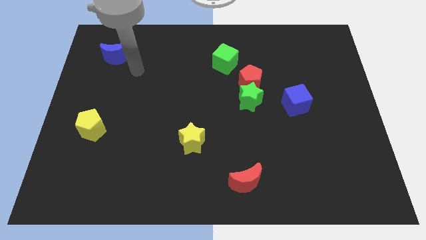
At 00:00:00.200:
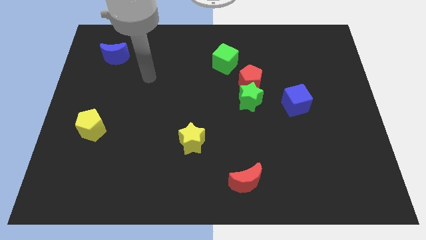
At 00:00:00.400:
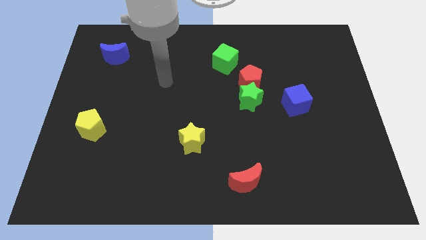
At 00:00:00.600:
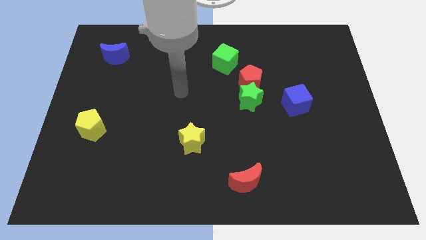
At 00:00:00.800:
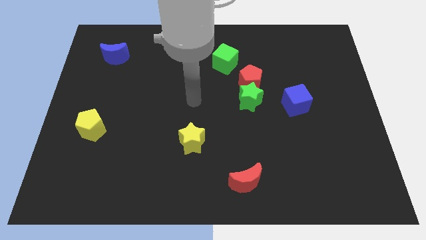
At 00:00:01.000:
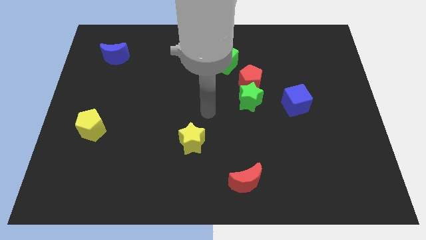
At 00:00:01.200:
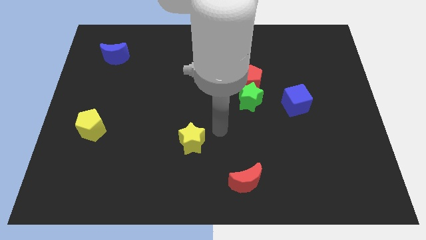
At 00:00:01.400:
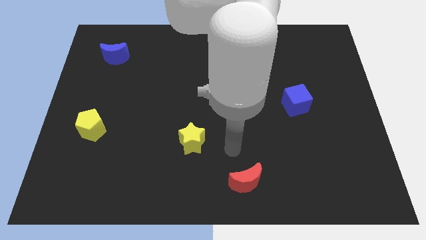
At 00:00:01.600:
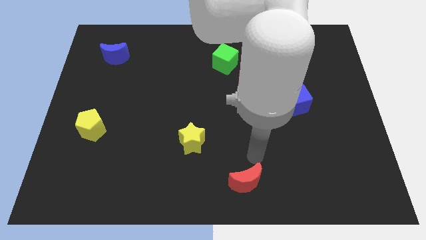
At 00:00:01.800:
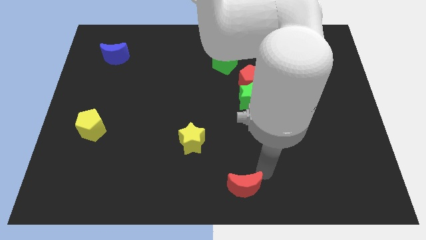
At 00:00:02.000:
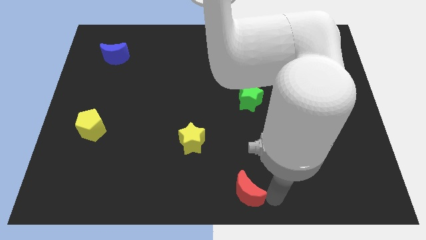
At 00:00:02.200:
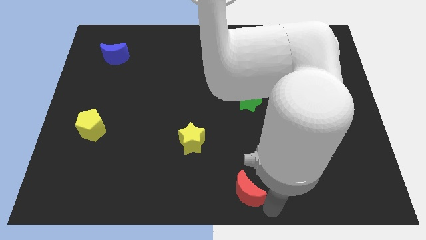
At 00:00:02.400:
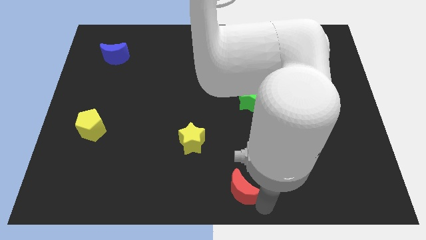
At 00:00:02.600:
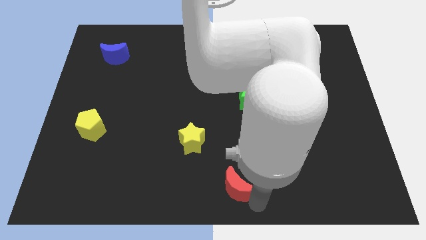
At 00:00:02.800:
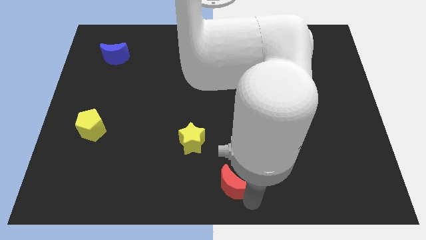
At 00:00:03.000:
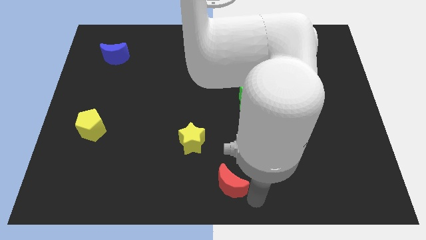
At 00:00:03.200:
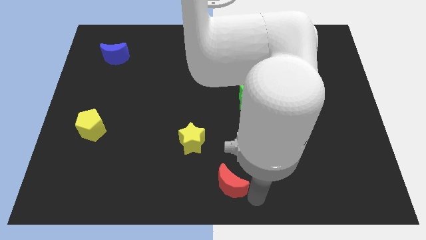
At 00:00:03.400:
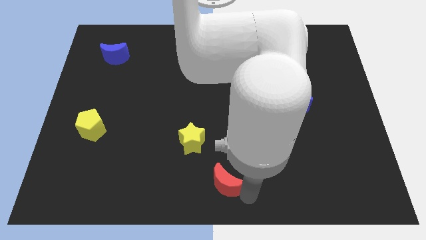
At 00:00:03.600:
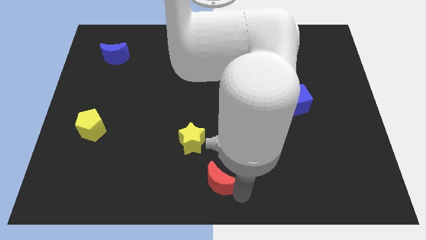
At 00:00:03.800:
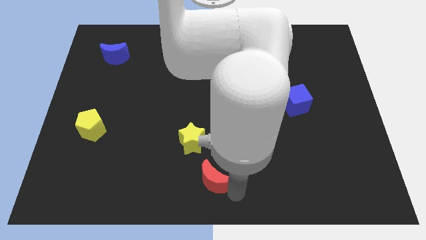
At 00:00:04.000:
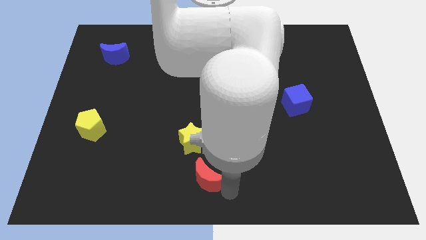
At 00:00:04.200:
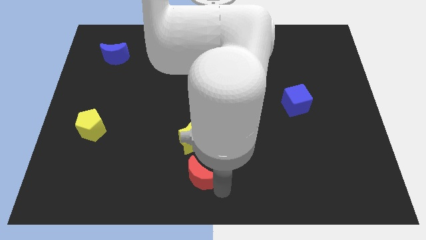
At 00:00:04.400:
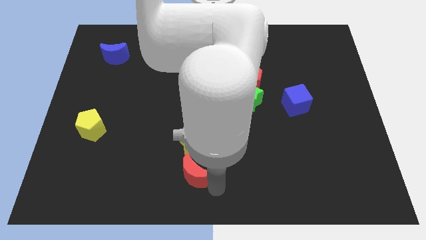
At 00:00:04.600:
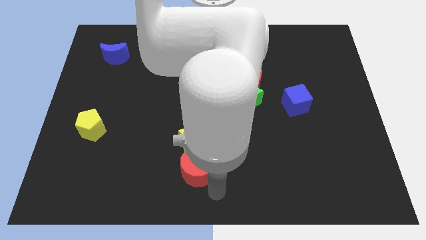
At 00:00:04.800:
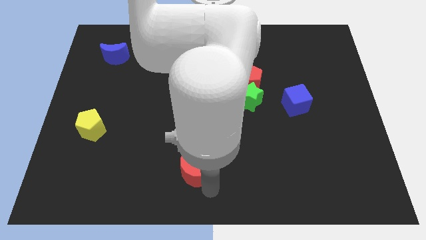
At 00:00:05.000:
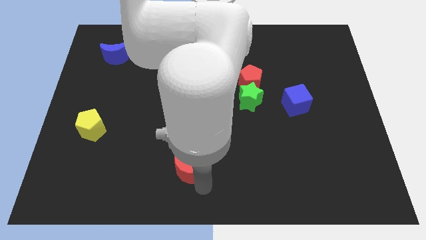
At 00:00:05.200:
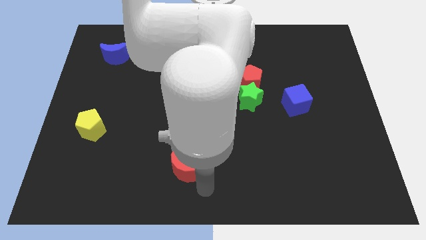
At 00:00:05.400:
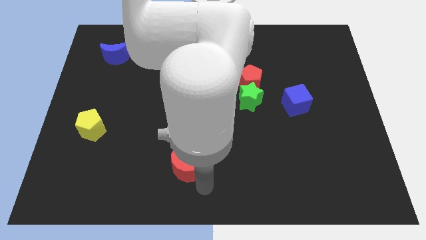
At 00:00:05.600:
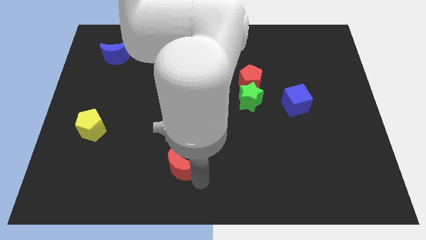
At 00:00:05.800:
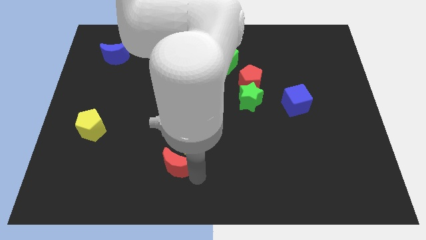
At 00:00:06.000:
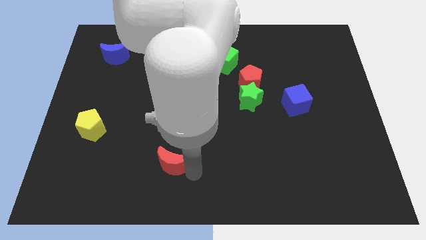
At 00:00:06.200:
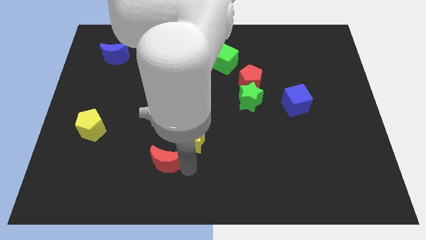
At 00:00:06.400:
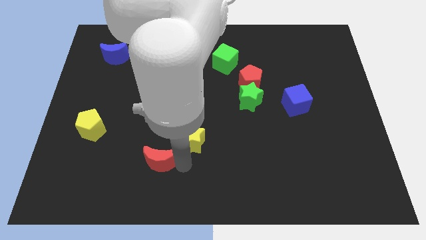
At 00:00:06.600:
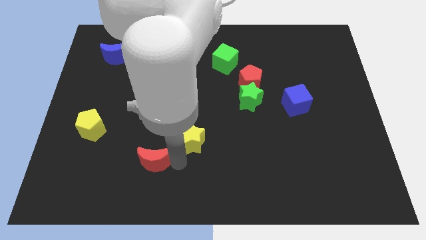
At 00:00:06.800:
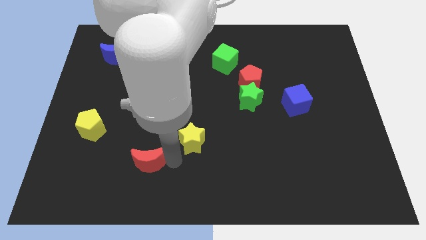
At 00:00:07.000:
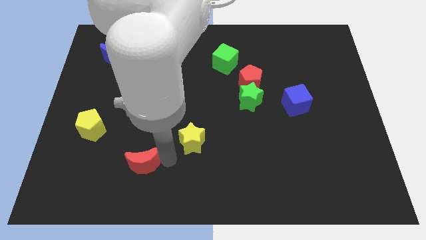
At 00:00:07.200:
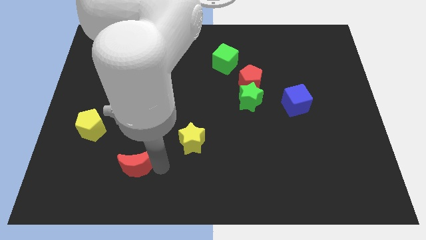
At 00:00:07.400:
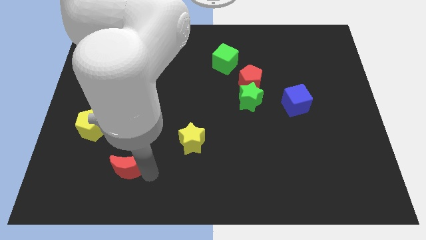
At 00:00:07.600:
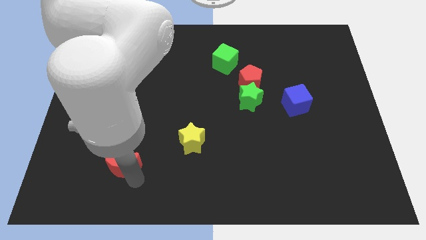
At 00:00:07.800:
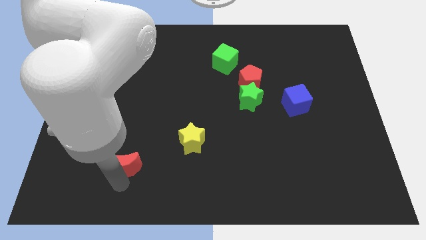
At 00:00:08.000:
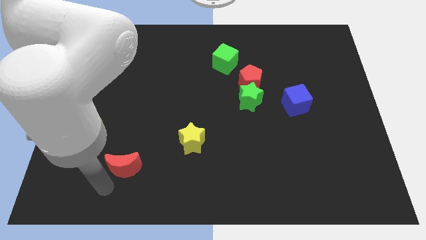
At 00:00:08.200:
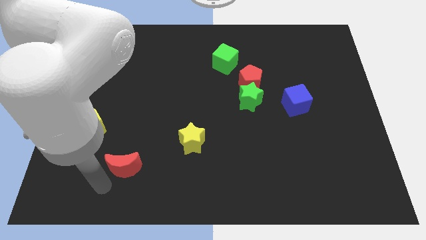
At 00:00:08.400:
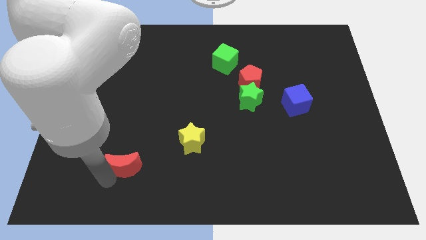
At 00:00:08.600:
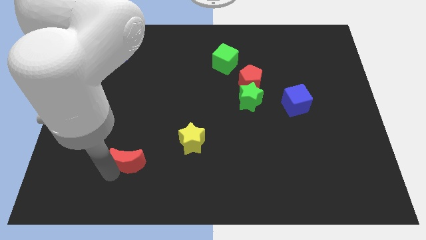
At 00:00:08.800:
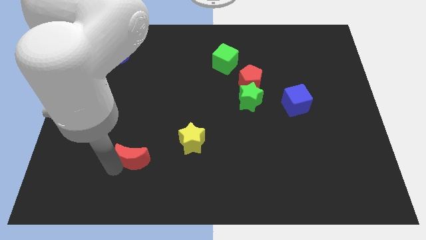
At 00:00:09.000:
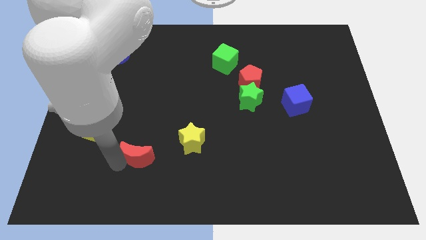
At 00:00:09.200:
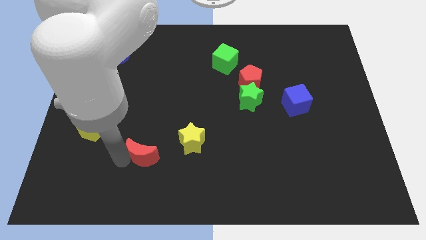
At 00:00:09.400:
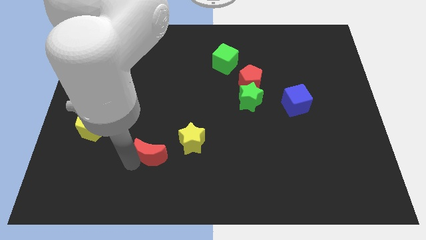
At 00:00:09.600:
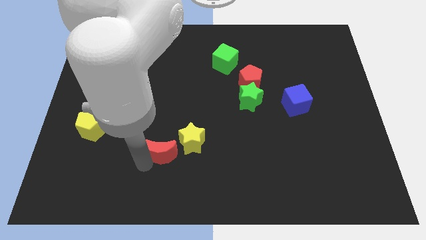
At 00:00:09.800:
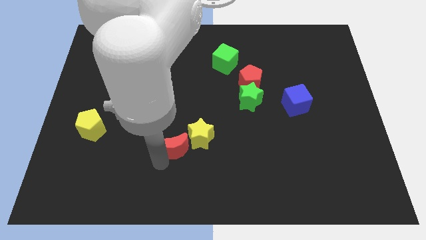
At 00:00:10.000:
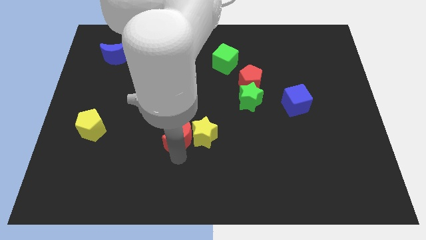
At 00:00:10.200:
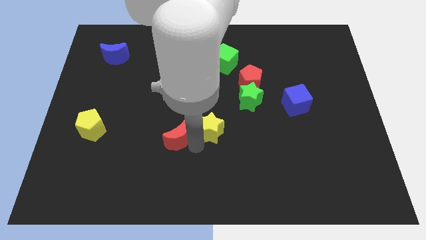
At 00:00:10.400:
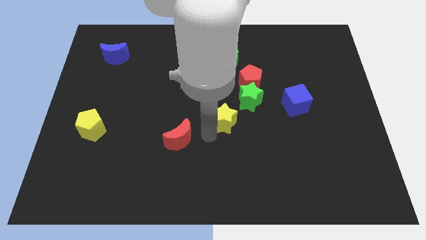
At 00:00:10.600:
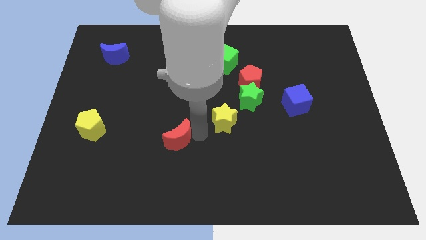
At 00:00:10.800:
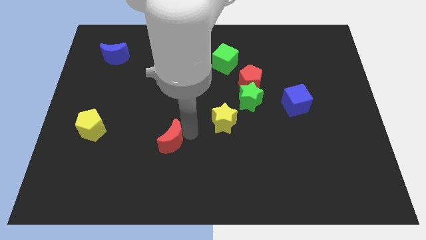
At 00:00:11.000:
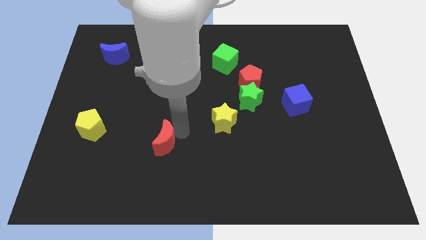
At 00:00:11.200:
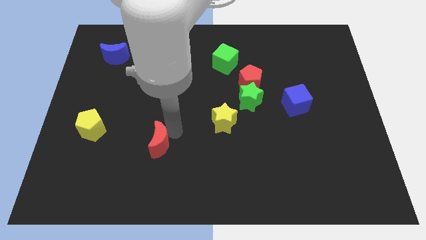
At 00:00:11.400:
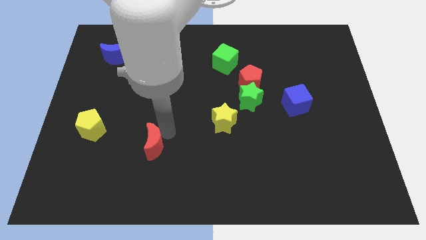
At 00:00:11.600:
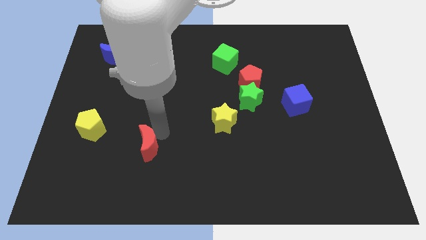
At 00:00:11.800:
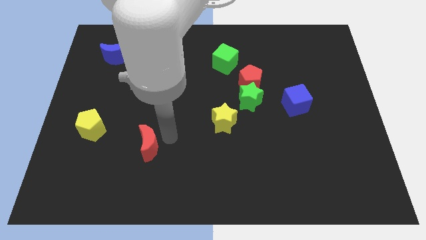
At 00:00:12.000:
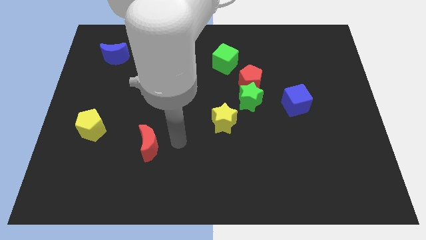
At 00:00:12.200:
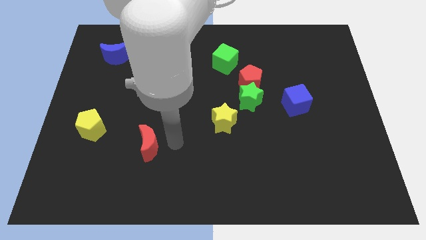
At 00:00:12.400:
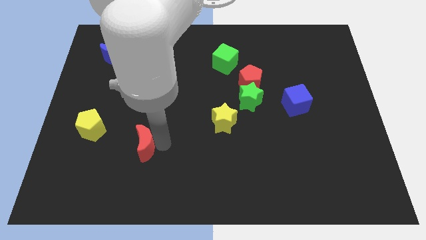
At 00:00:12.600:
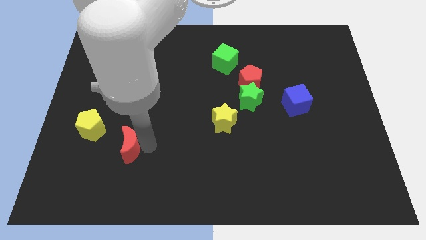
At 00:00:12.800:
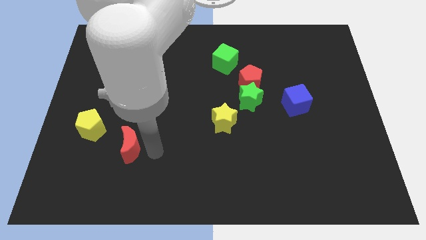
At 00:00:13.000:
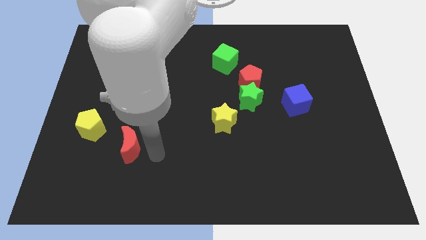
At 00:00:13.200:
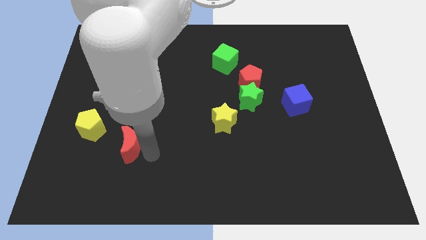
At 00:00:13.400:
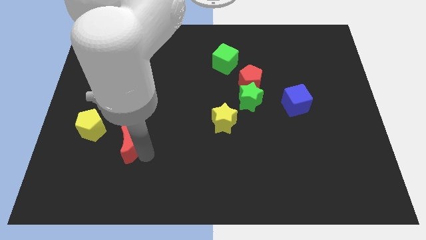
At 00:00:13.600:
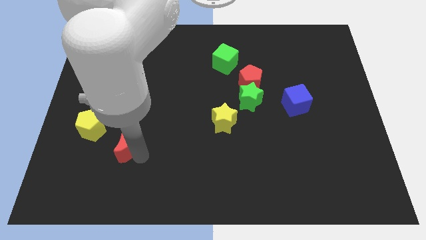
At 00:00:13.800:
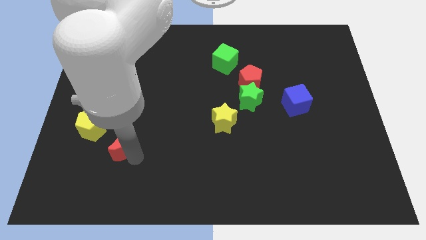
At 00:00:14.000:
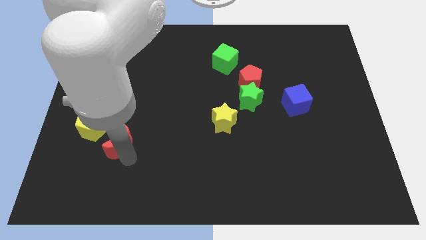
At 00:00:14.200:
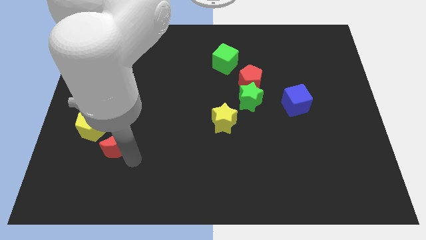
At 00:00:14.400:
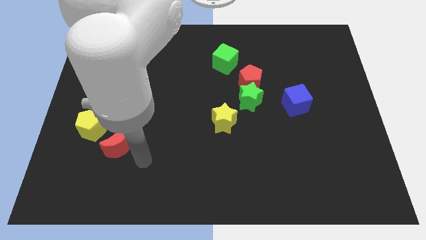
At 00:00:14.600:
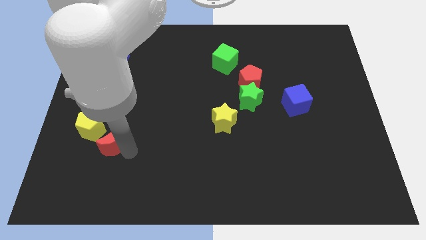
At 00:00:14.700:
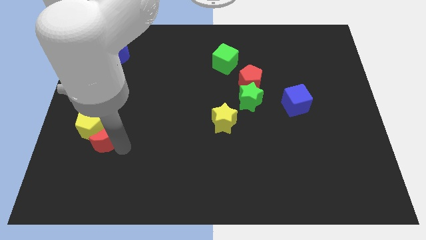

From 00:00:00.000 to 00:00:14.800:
move the red moon towards the yellow pentagon

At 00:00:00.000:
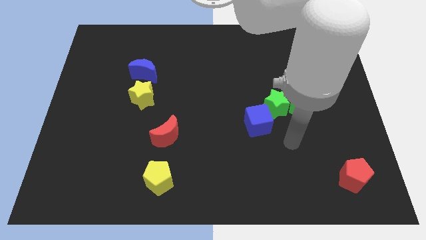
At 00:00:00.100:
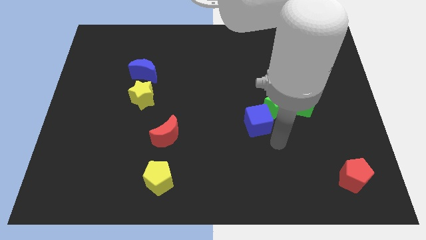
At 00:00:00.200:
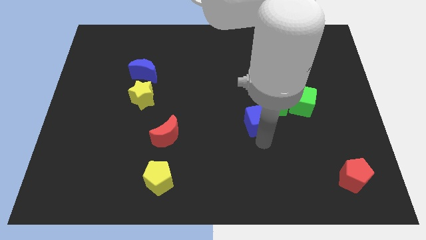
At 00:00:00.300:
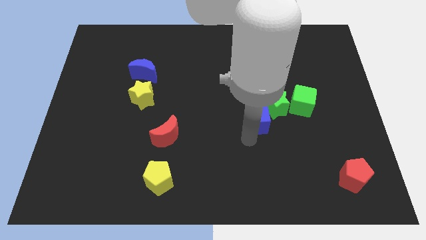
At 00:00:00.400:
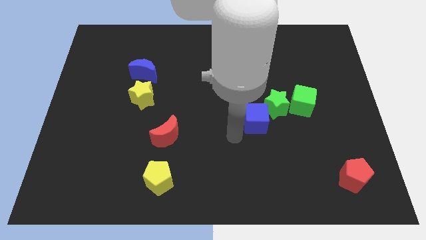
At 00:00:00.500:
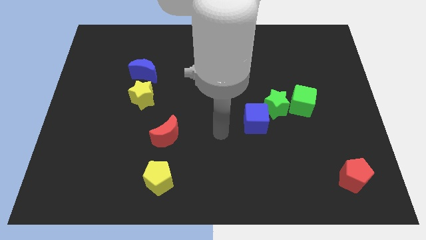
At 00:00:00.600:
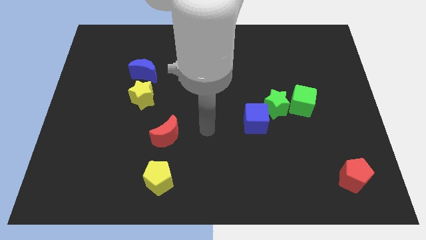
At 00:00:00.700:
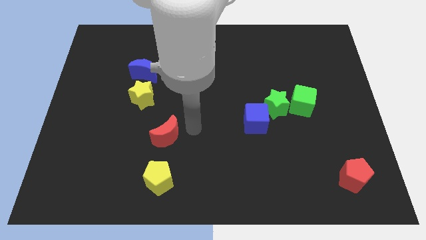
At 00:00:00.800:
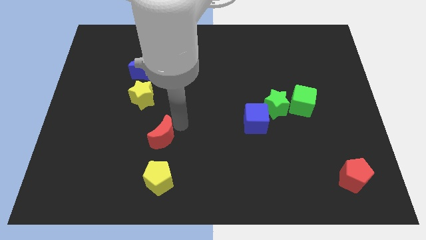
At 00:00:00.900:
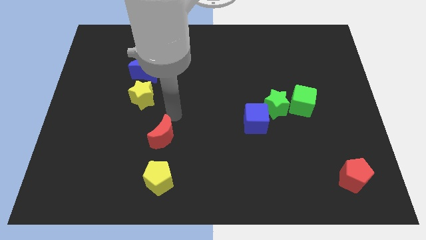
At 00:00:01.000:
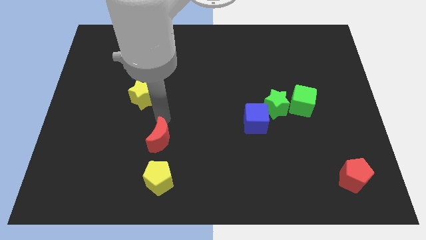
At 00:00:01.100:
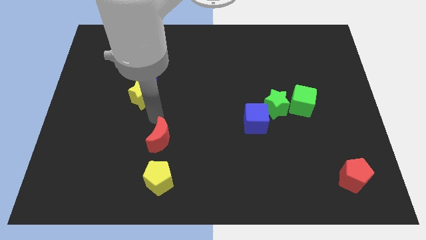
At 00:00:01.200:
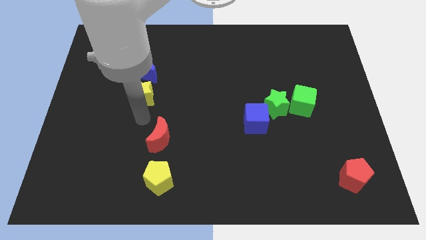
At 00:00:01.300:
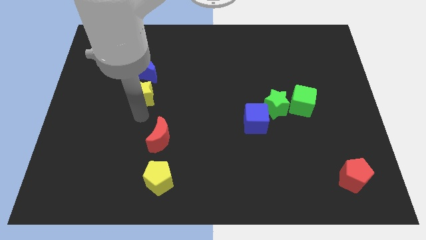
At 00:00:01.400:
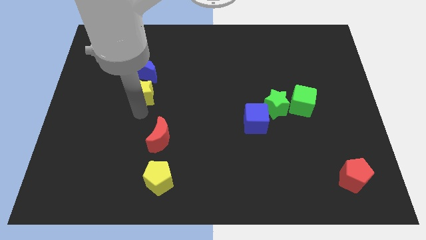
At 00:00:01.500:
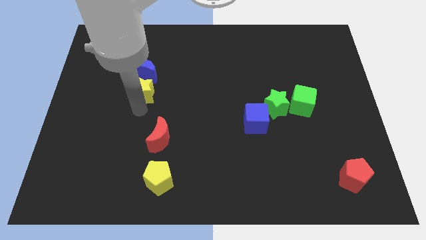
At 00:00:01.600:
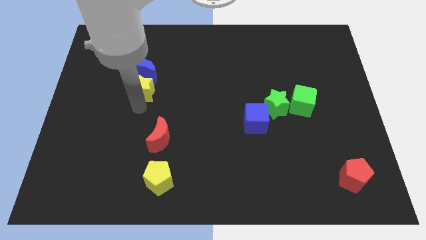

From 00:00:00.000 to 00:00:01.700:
push the yellow star next to the blue moon
